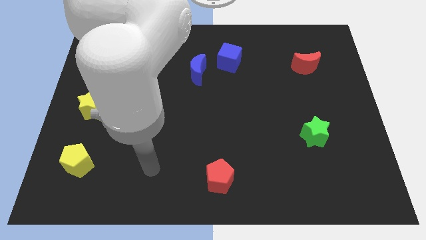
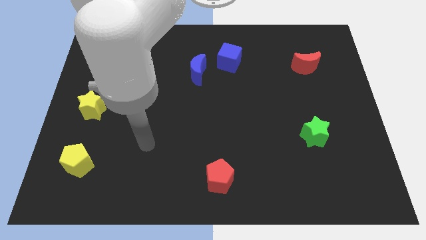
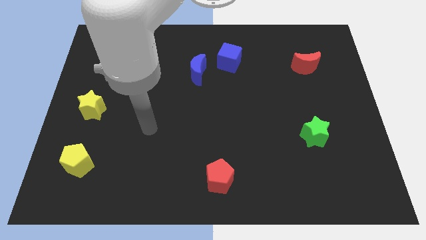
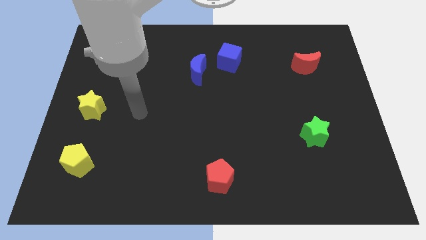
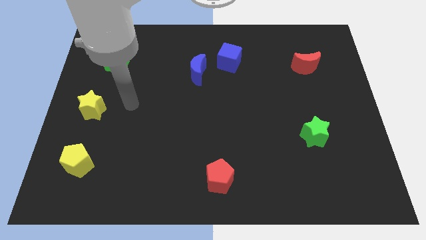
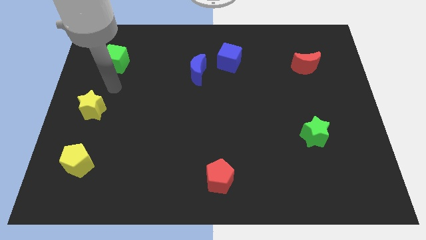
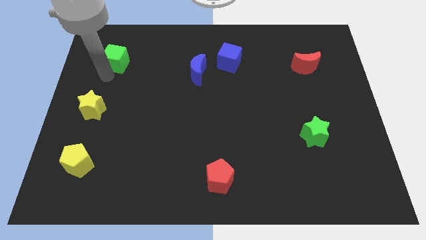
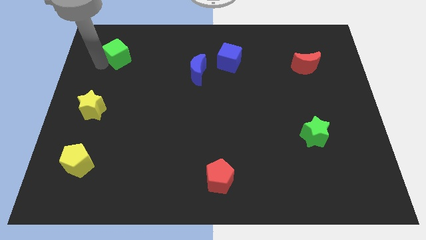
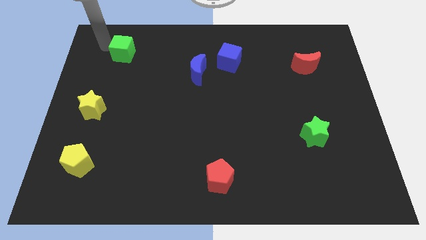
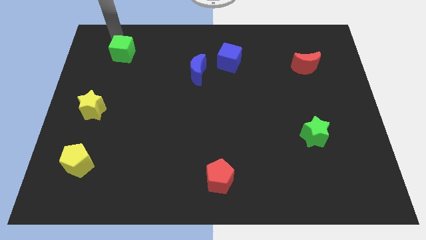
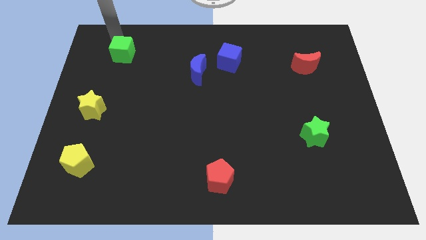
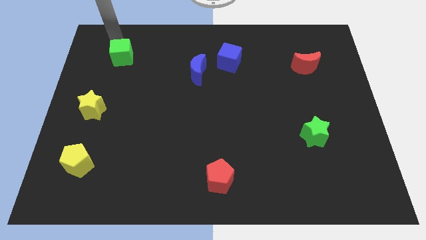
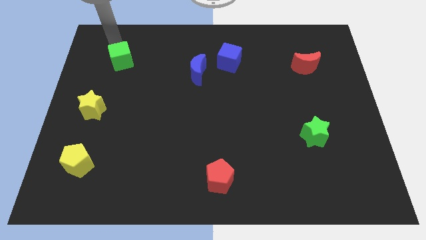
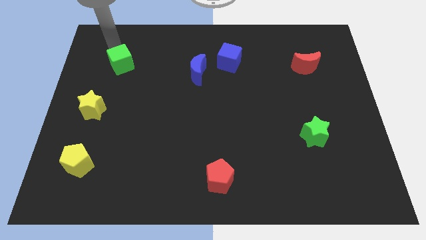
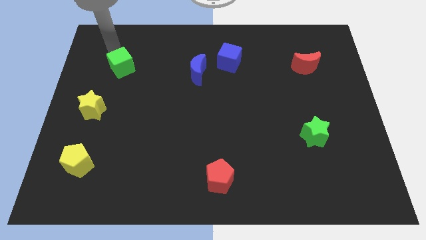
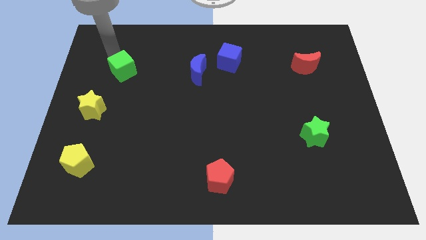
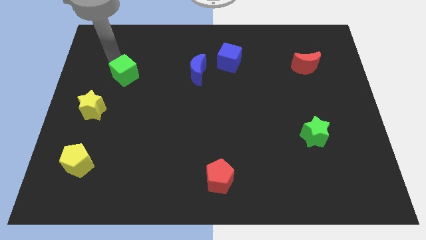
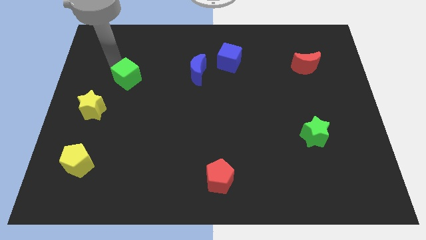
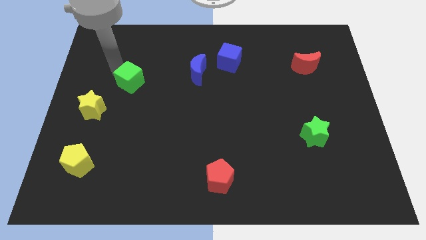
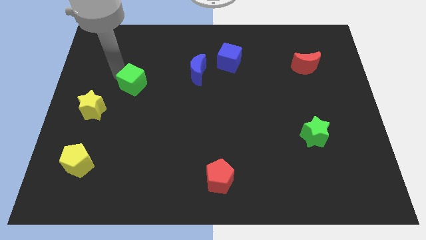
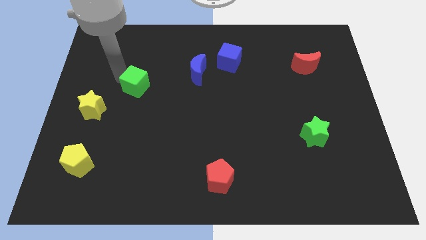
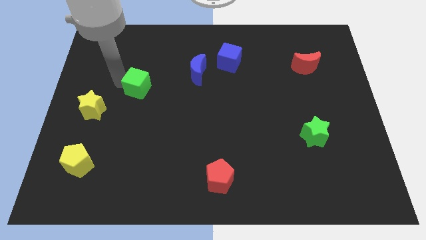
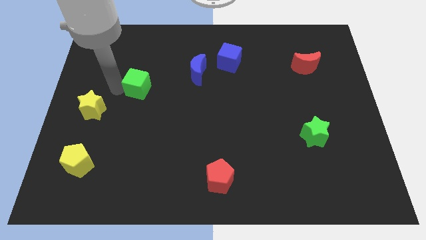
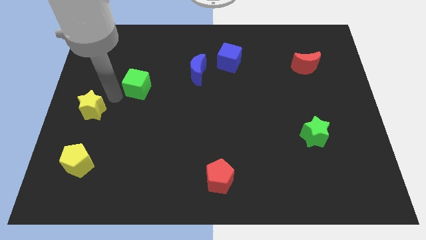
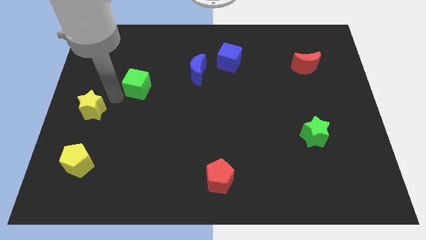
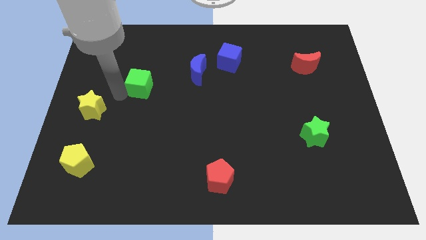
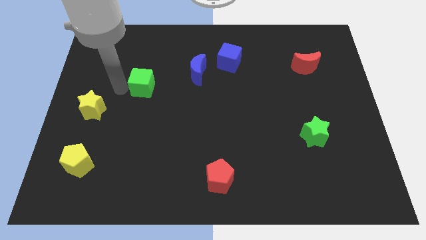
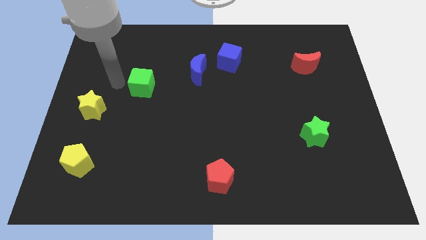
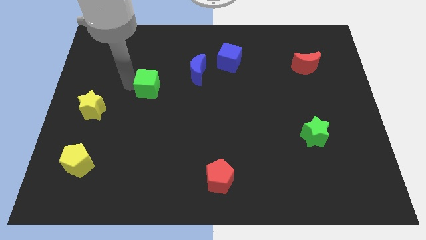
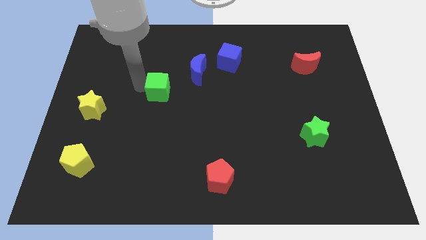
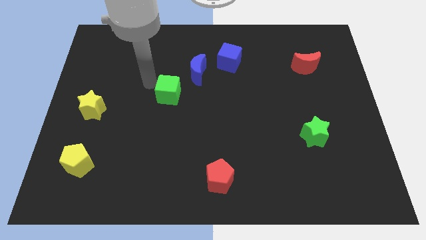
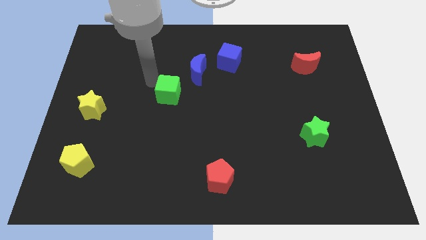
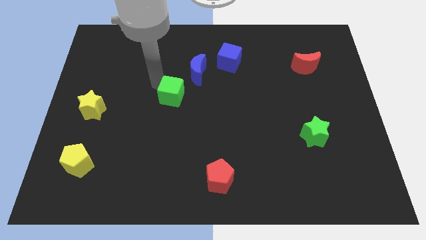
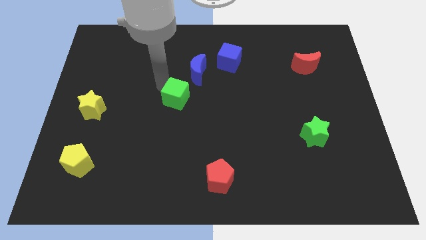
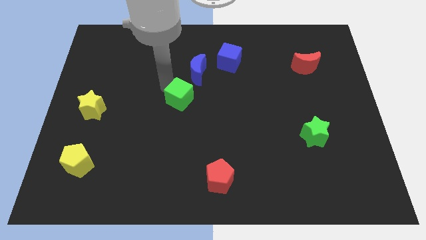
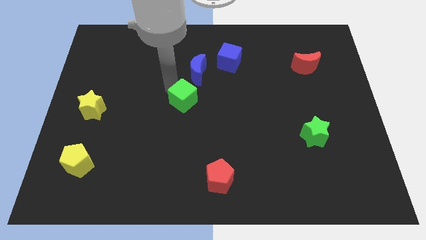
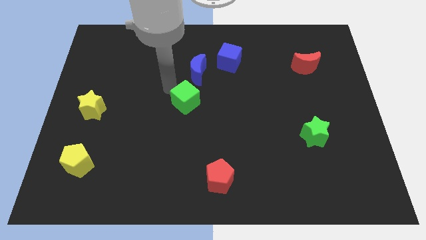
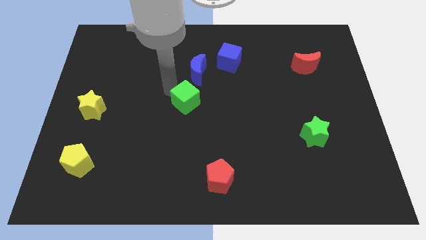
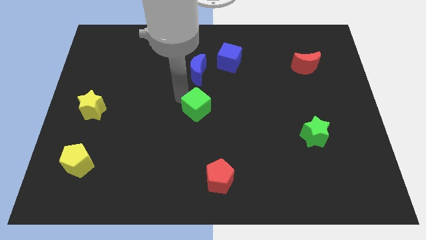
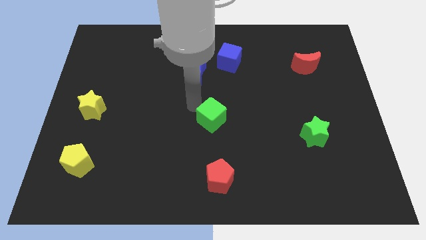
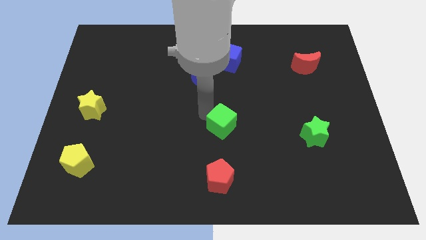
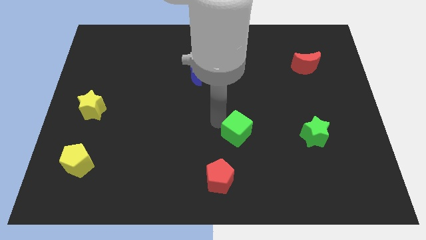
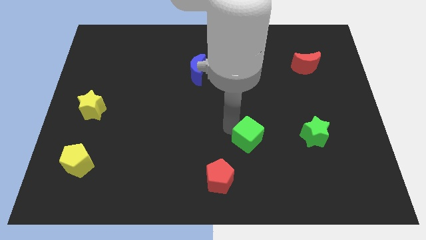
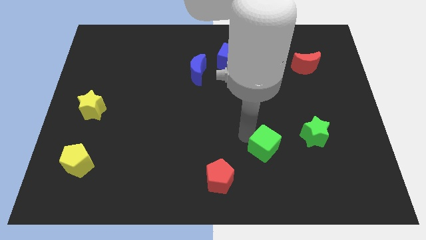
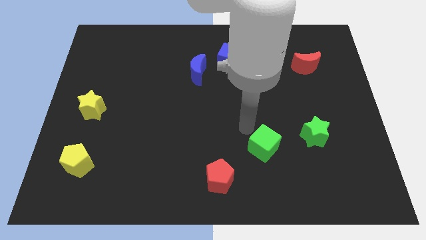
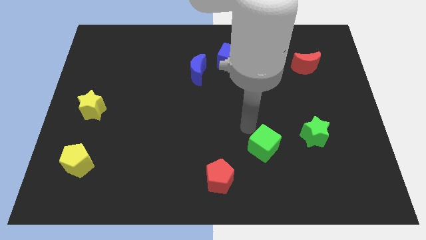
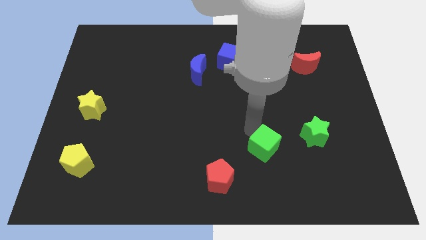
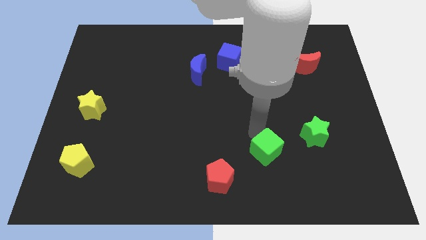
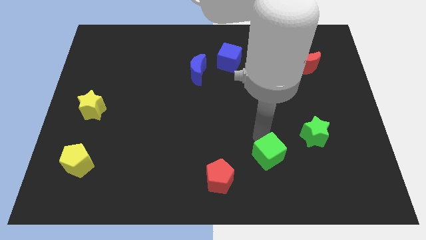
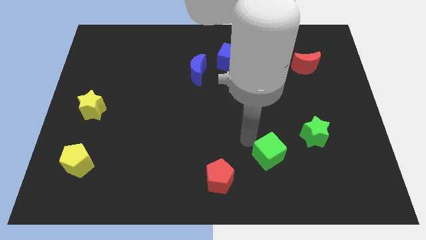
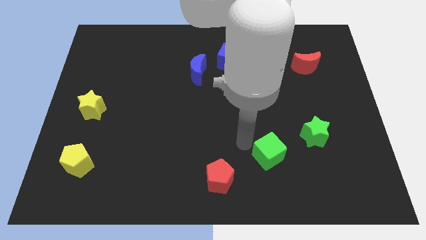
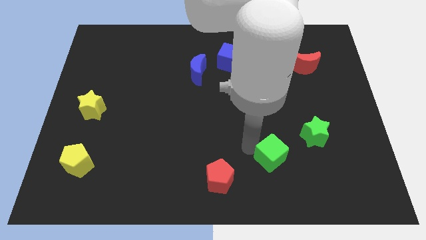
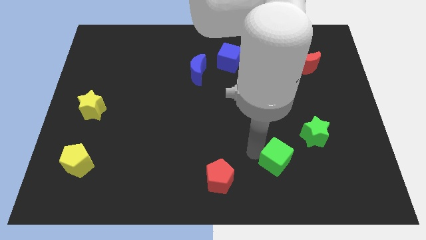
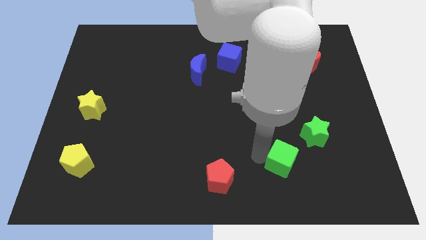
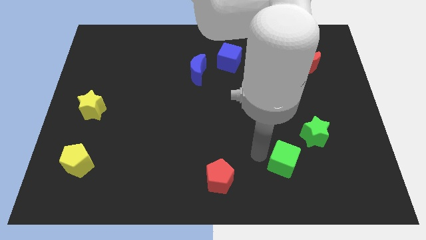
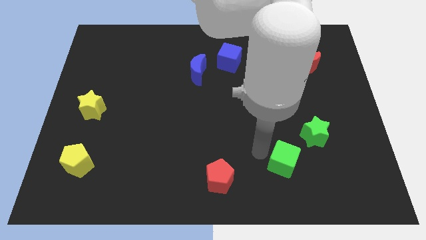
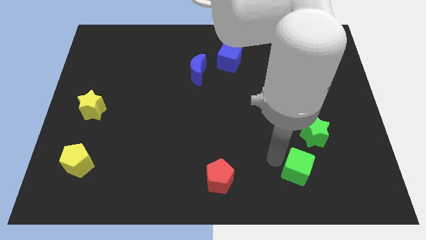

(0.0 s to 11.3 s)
slide the green cube to the bottom side of the green star

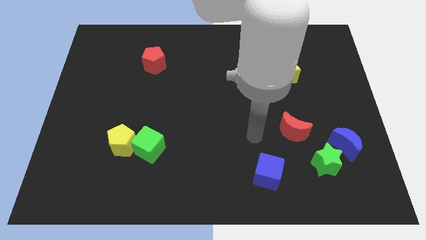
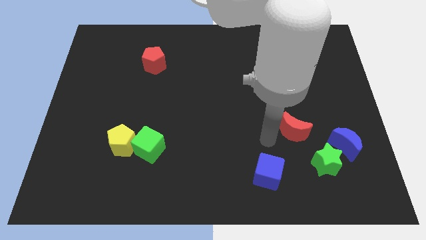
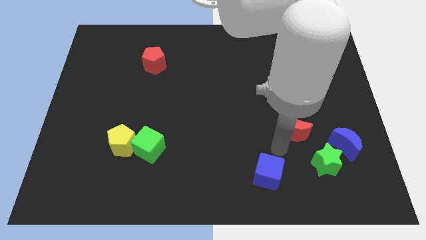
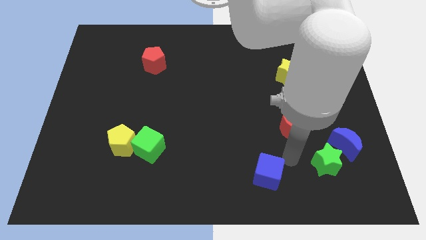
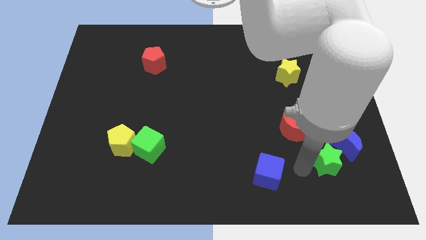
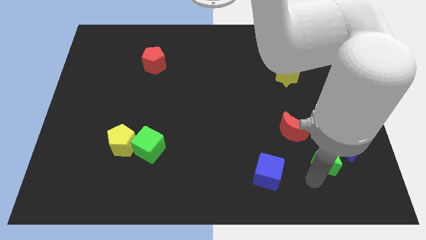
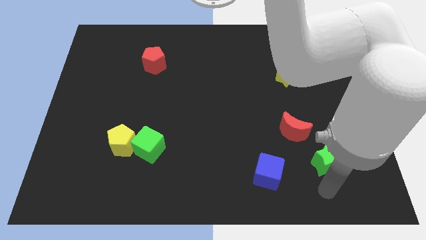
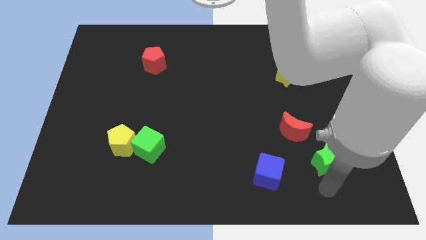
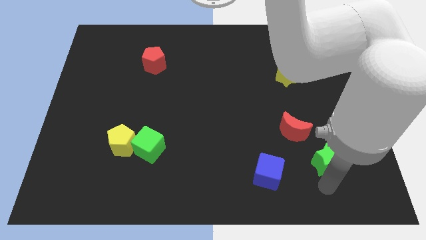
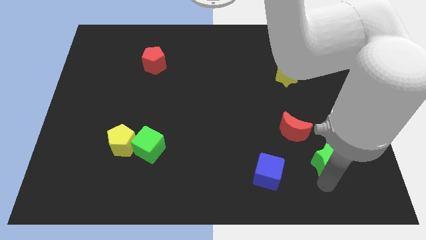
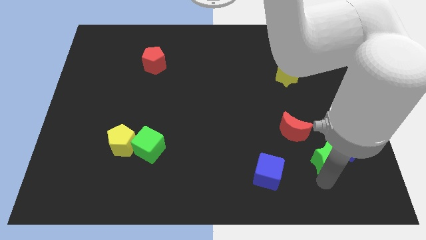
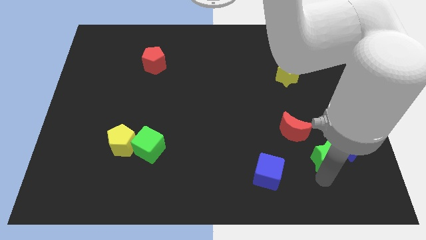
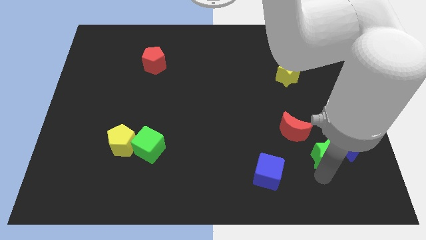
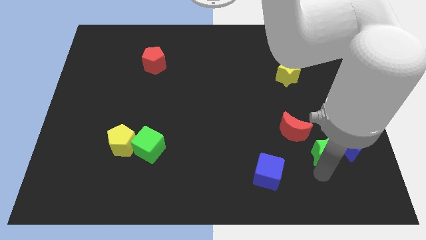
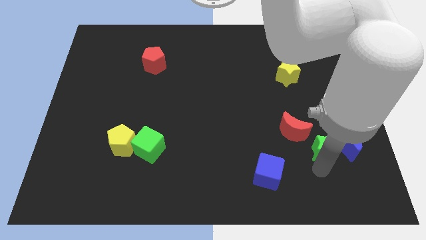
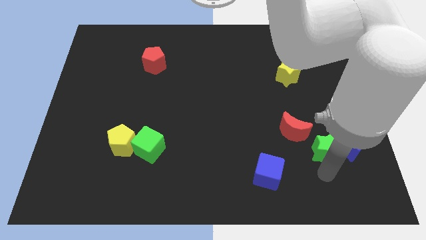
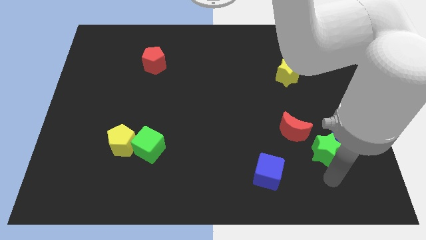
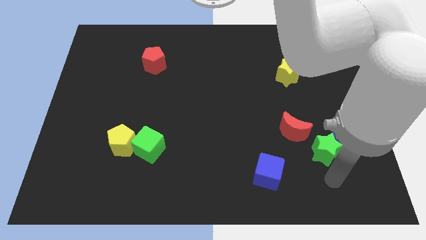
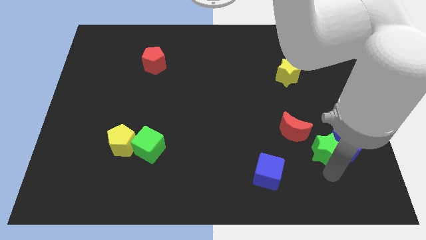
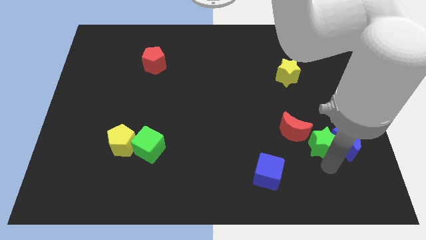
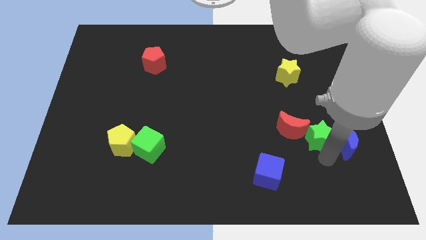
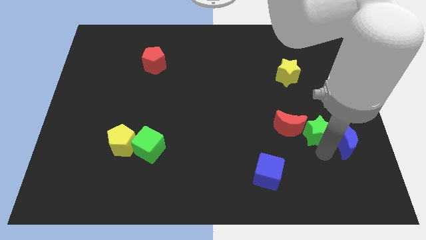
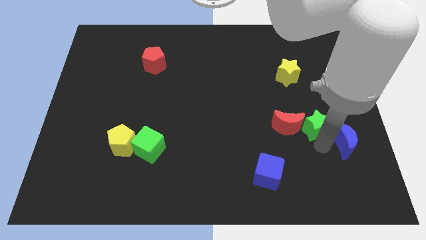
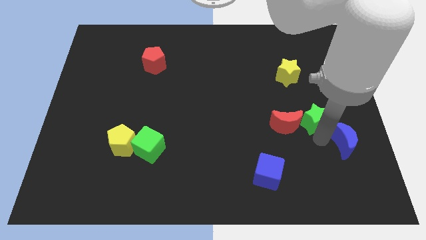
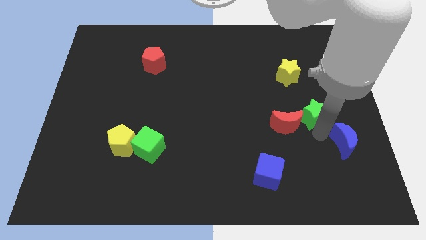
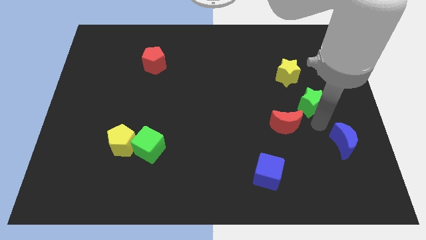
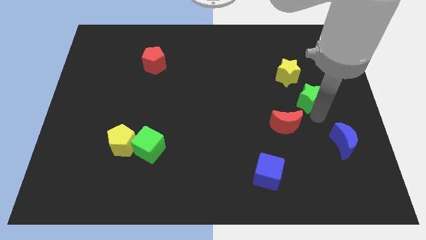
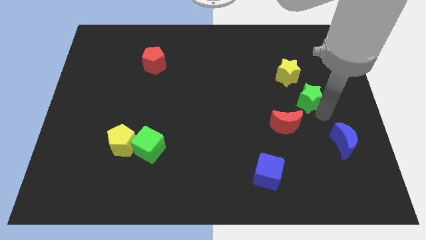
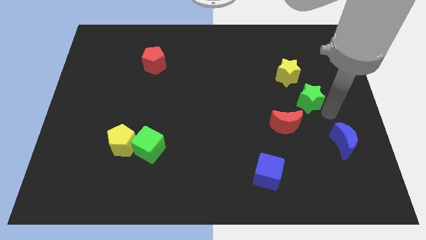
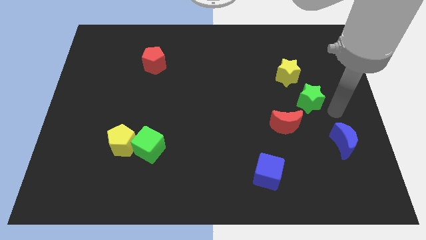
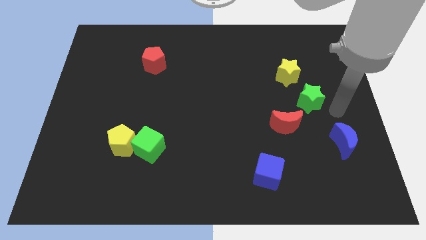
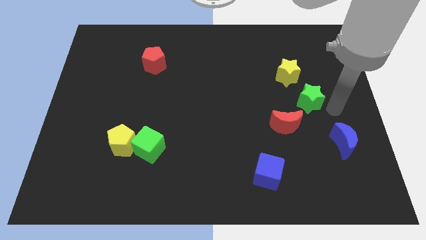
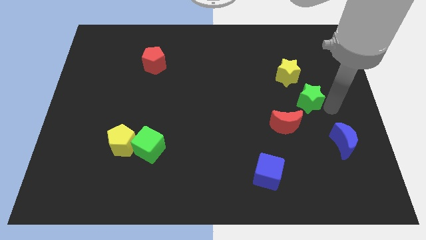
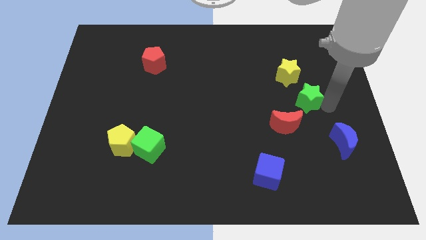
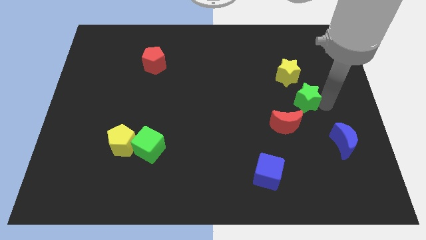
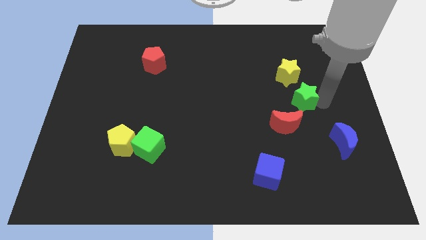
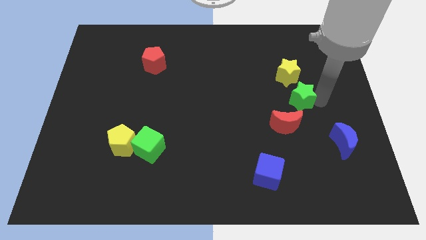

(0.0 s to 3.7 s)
move the green star to the top side of the red moon
